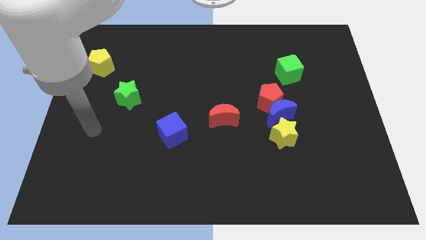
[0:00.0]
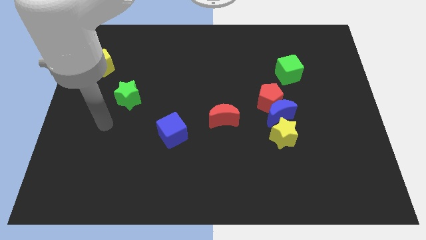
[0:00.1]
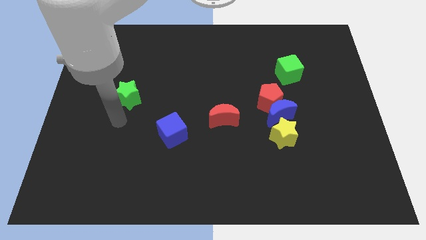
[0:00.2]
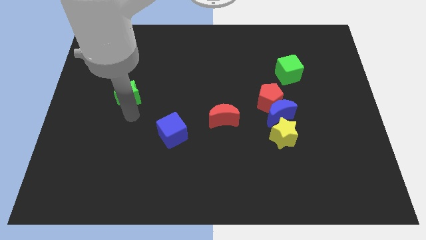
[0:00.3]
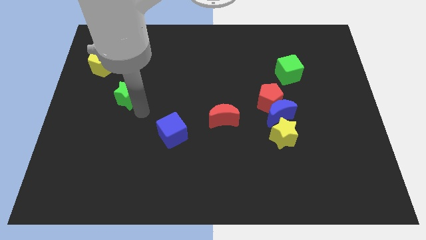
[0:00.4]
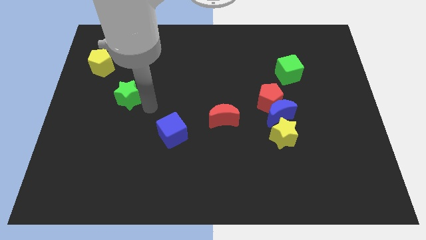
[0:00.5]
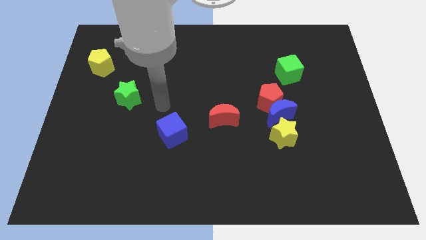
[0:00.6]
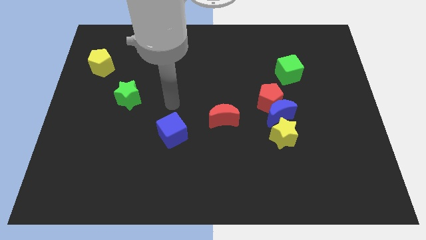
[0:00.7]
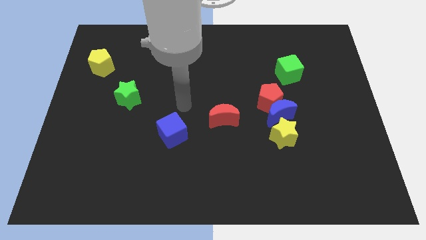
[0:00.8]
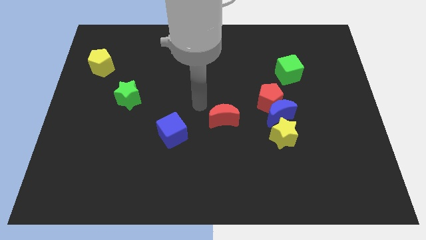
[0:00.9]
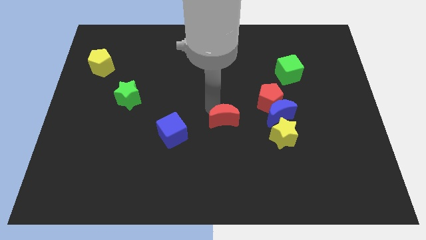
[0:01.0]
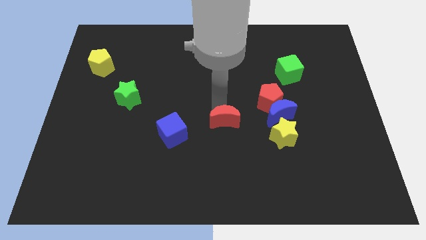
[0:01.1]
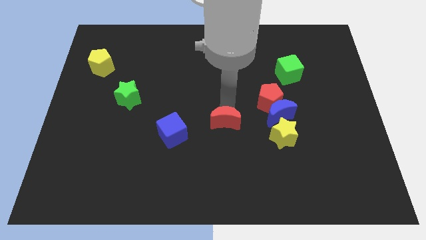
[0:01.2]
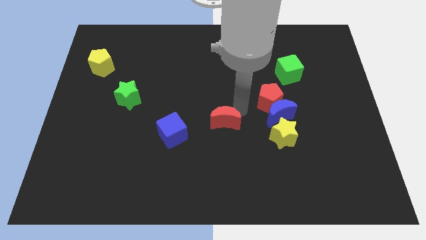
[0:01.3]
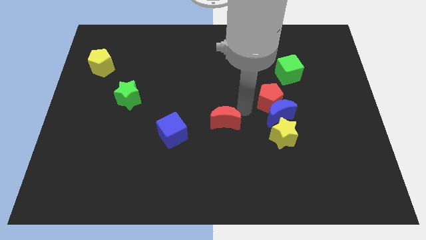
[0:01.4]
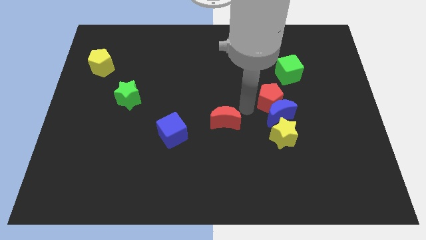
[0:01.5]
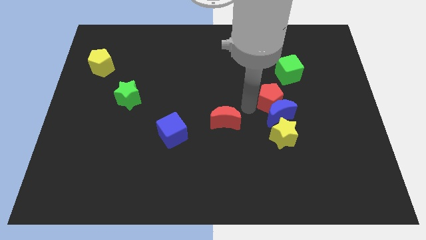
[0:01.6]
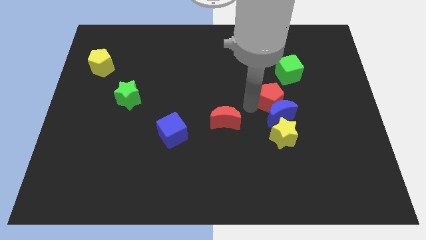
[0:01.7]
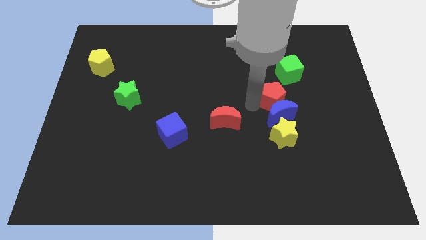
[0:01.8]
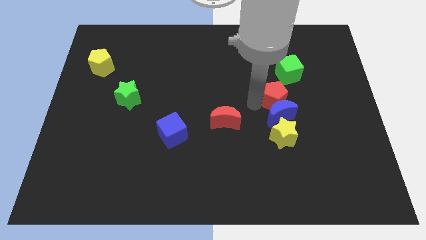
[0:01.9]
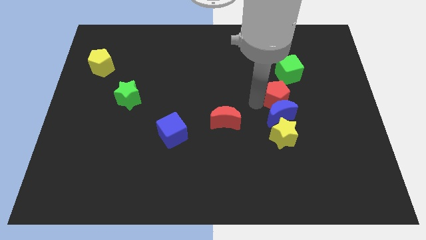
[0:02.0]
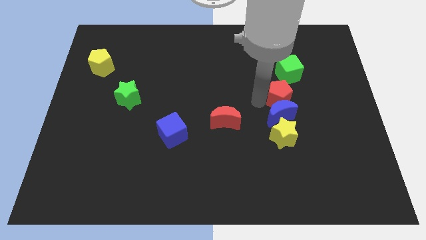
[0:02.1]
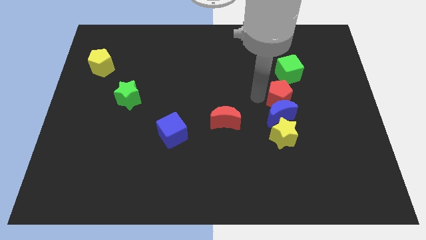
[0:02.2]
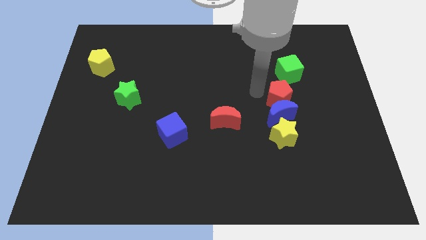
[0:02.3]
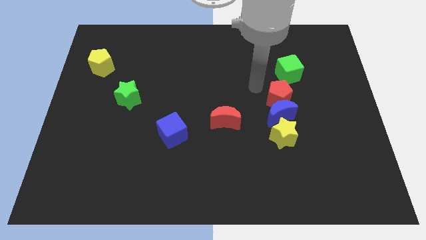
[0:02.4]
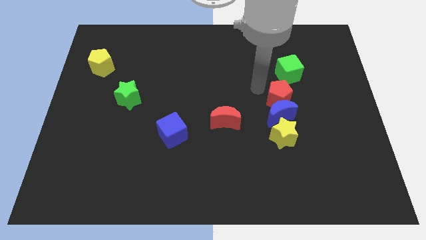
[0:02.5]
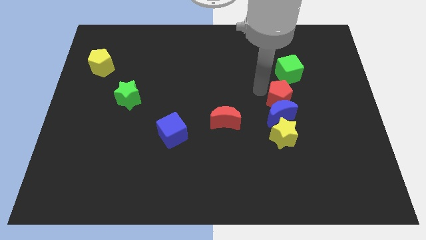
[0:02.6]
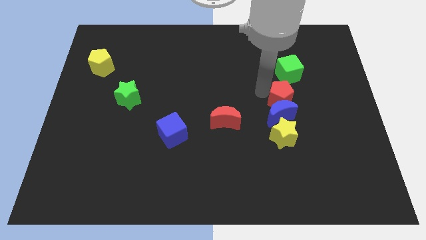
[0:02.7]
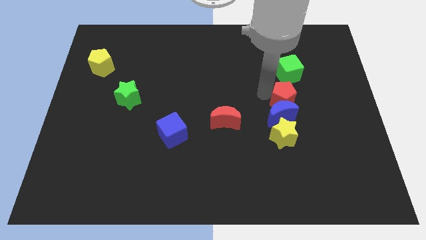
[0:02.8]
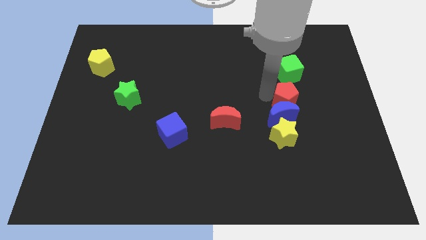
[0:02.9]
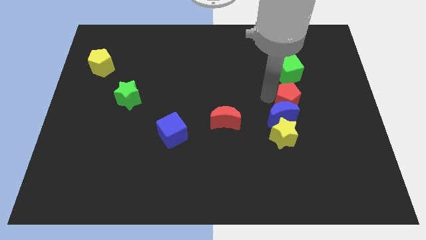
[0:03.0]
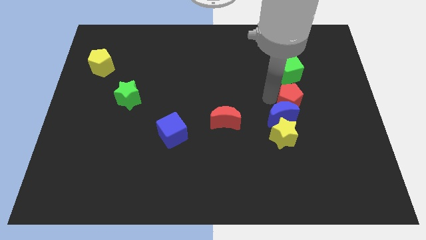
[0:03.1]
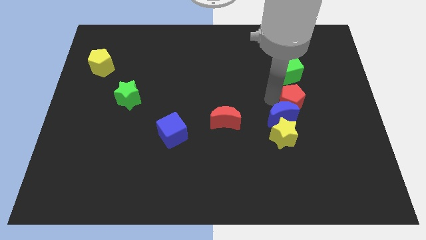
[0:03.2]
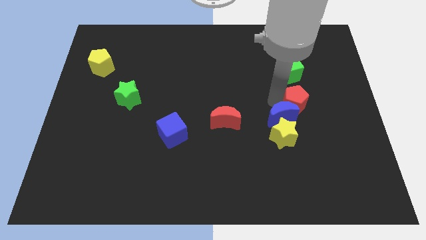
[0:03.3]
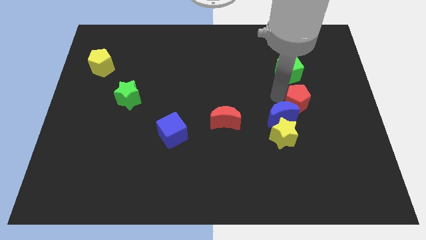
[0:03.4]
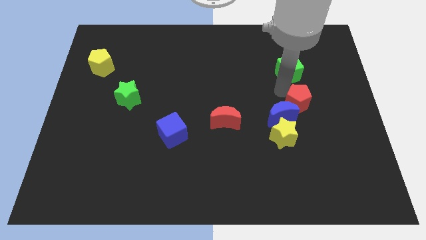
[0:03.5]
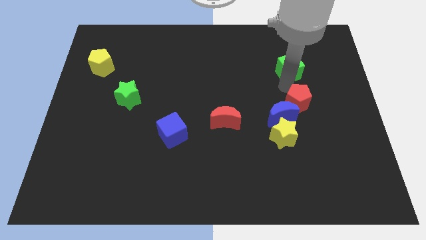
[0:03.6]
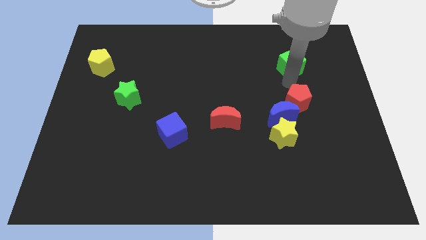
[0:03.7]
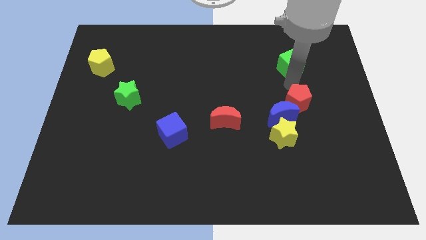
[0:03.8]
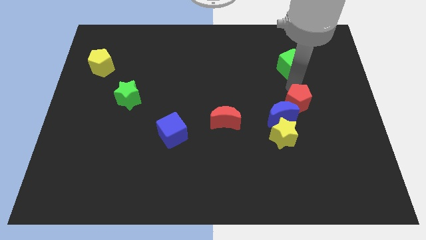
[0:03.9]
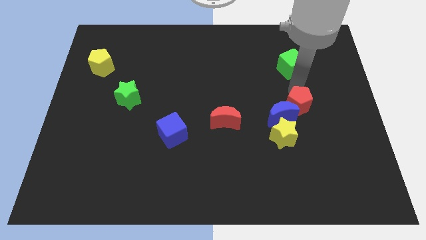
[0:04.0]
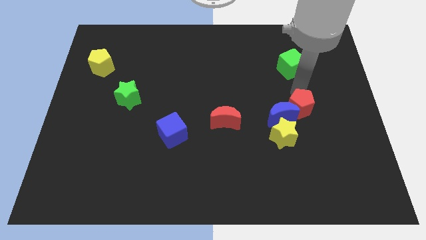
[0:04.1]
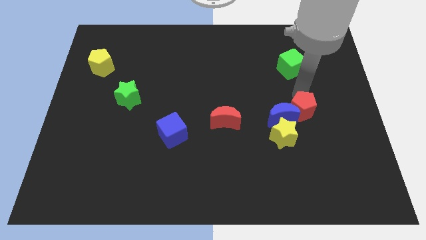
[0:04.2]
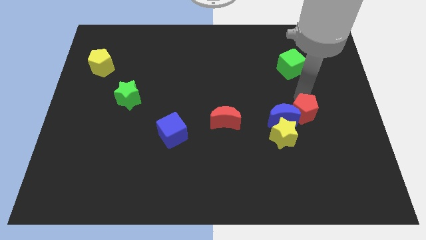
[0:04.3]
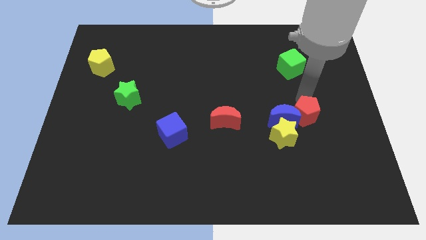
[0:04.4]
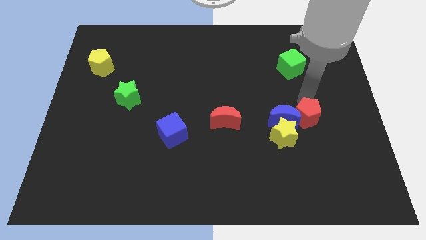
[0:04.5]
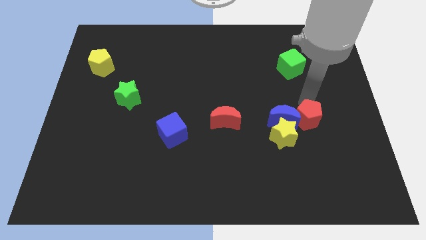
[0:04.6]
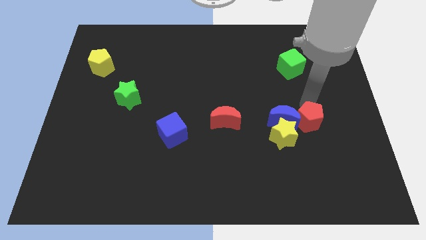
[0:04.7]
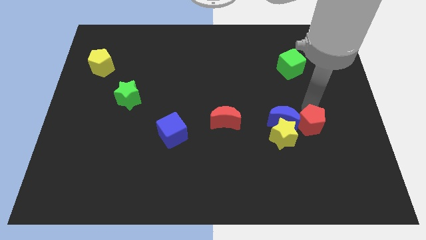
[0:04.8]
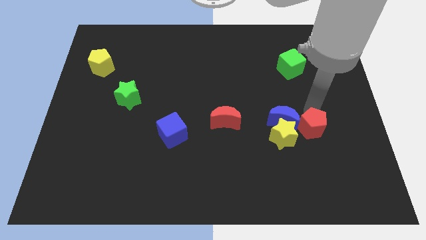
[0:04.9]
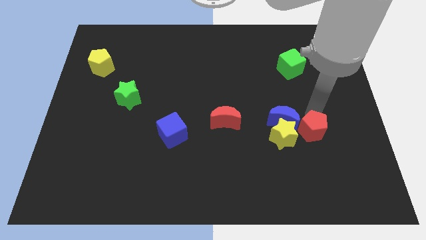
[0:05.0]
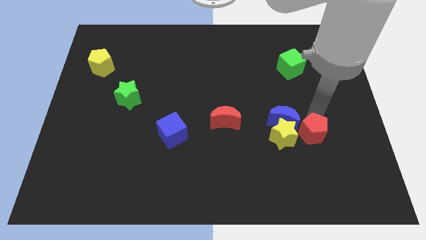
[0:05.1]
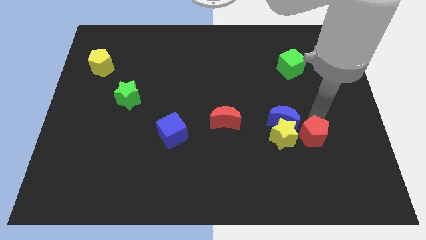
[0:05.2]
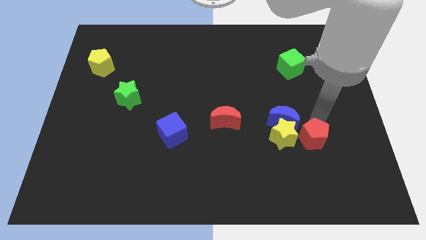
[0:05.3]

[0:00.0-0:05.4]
put the red pentagon diagonally down and to the right of the yellow star

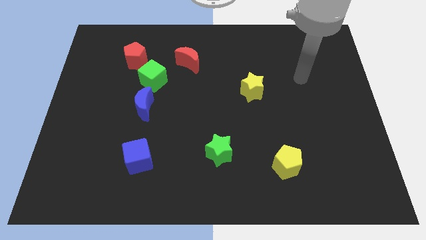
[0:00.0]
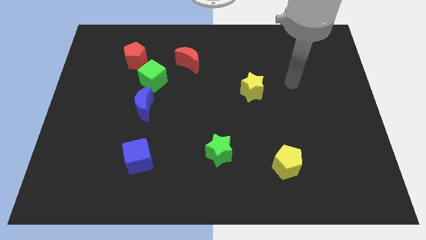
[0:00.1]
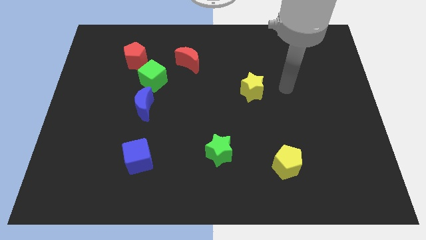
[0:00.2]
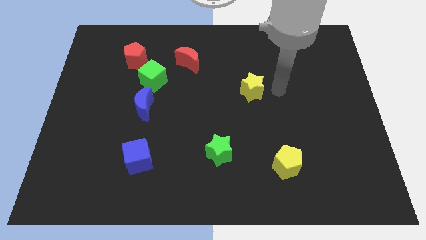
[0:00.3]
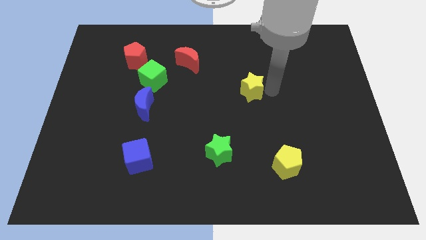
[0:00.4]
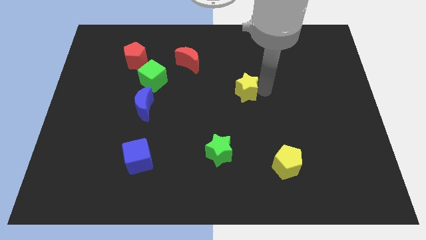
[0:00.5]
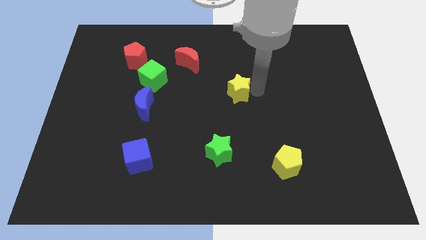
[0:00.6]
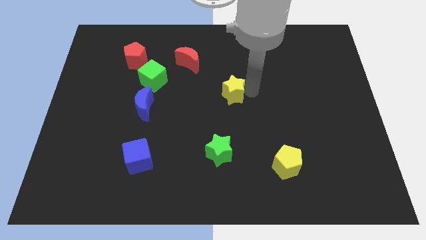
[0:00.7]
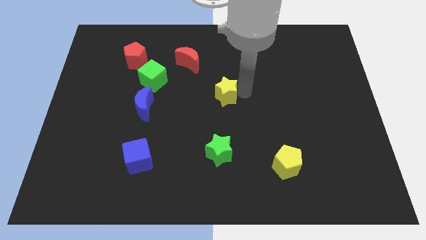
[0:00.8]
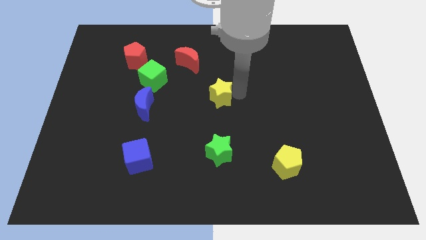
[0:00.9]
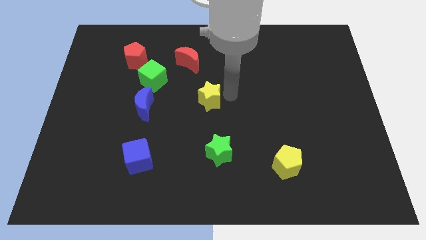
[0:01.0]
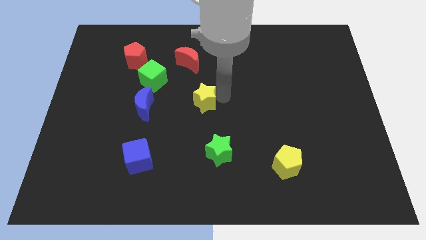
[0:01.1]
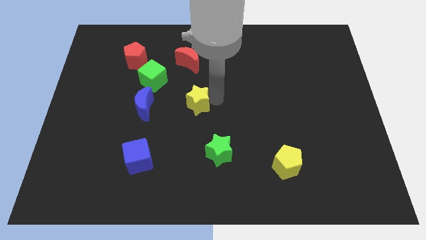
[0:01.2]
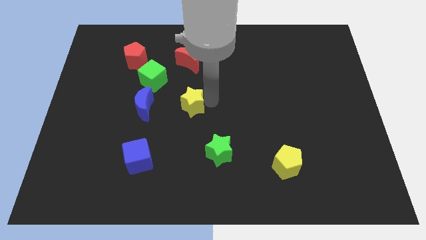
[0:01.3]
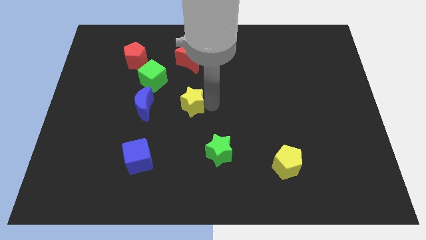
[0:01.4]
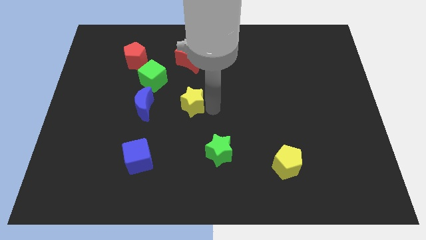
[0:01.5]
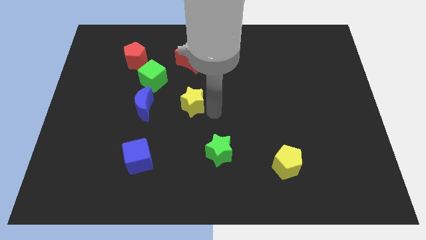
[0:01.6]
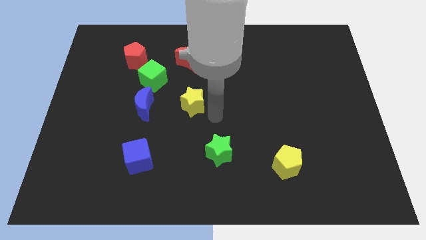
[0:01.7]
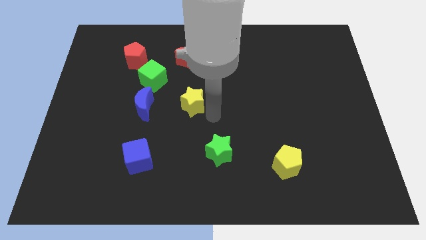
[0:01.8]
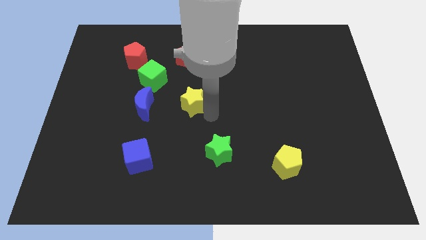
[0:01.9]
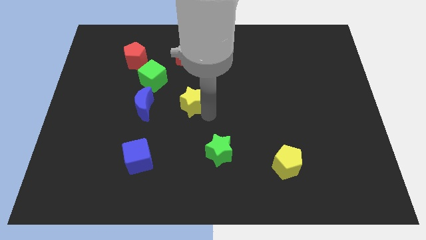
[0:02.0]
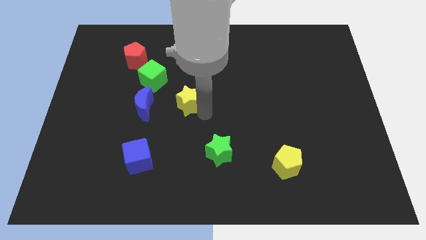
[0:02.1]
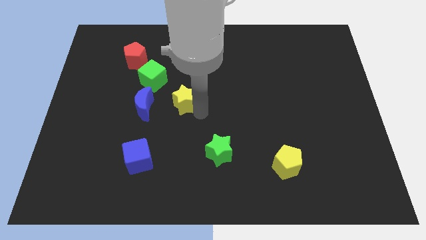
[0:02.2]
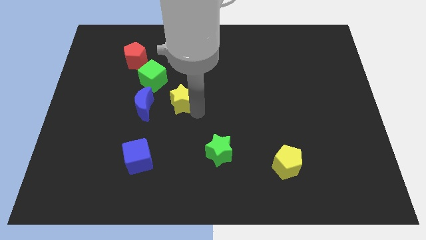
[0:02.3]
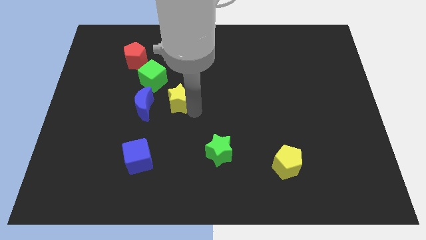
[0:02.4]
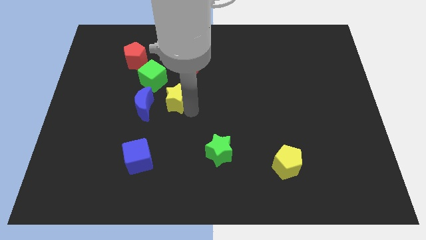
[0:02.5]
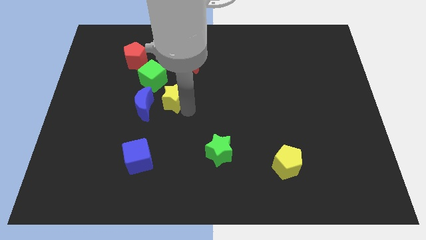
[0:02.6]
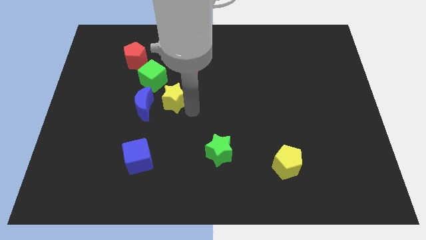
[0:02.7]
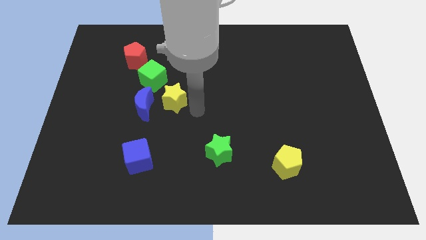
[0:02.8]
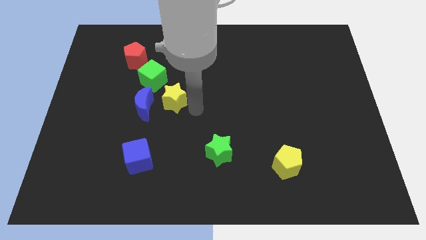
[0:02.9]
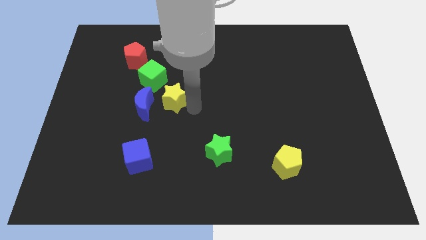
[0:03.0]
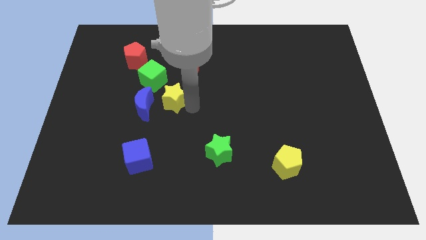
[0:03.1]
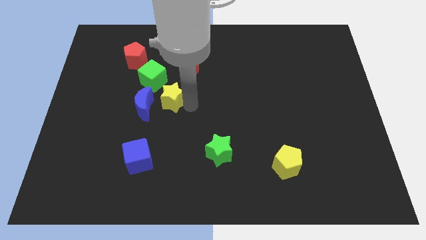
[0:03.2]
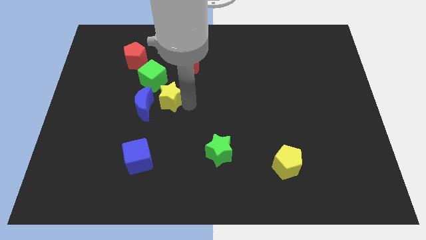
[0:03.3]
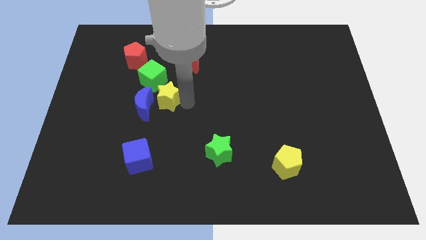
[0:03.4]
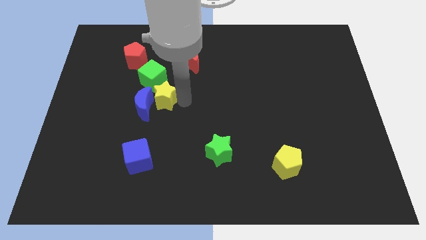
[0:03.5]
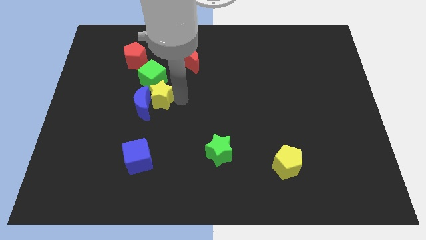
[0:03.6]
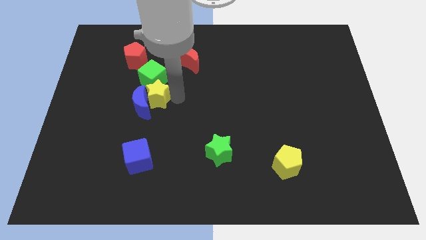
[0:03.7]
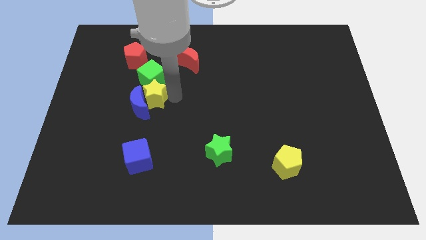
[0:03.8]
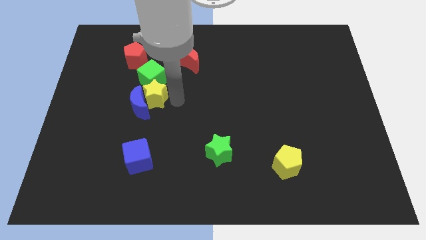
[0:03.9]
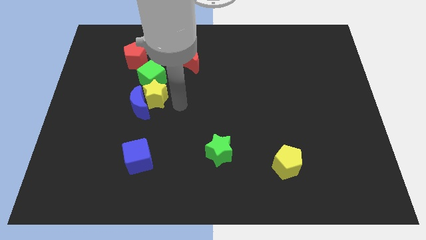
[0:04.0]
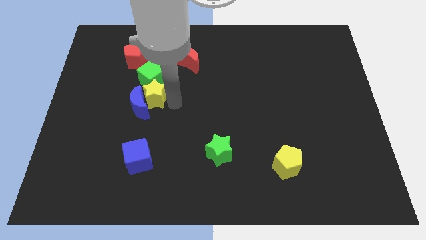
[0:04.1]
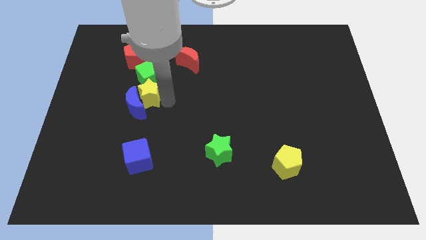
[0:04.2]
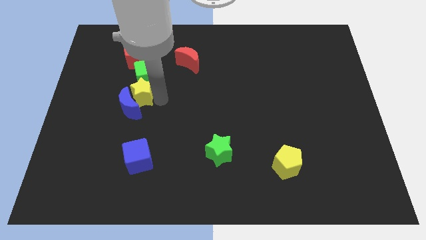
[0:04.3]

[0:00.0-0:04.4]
put the yellow star to the bottom side of the red pentagon
